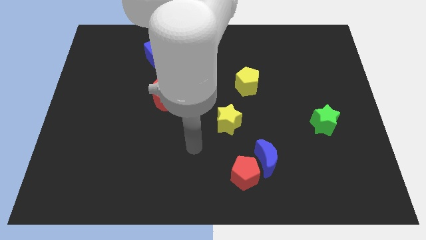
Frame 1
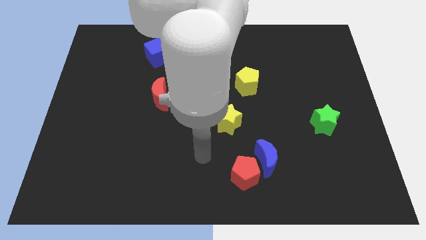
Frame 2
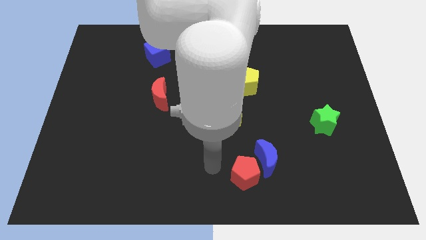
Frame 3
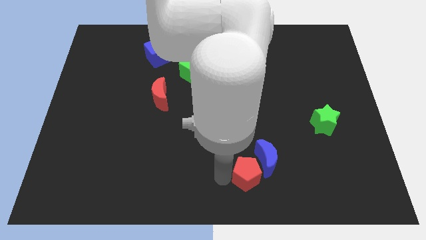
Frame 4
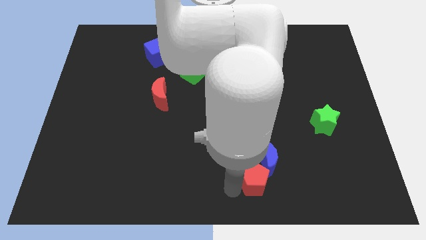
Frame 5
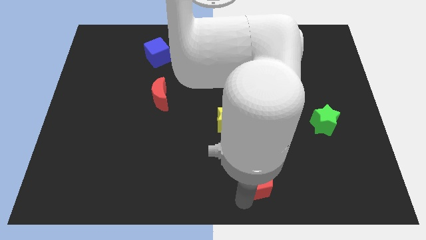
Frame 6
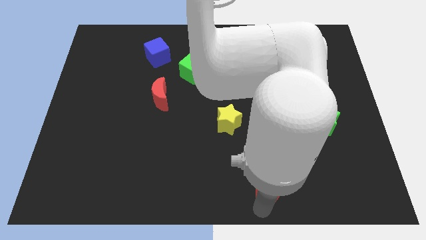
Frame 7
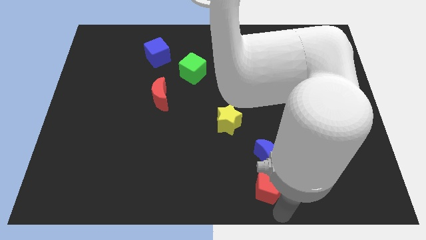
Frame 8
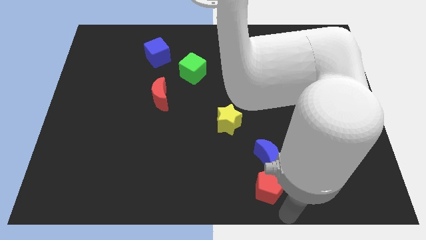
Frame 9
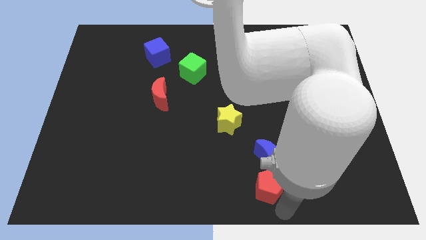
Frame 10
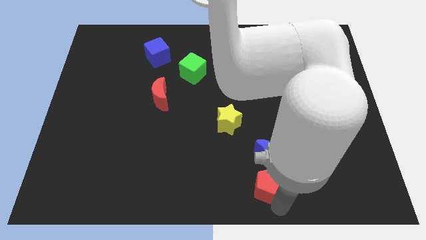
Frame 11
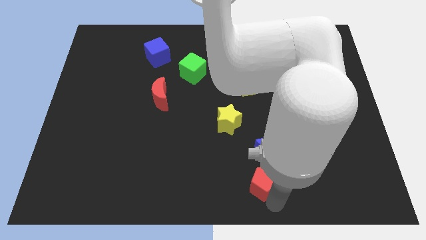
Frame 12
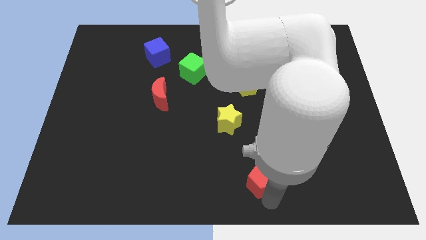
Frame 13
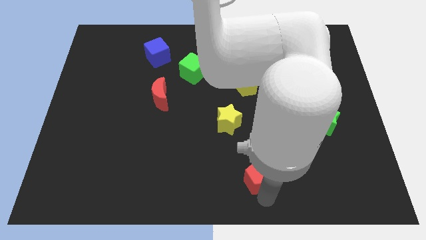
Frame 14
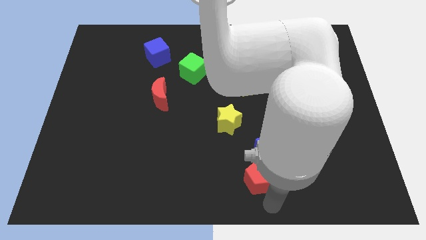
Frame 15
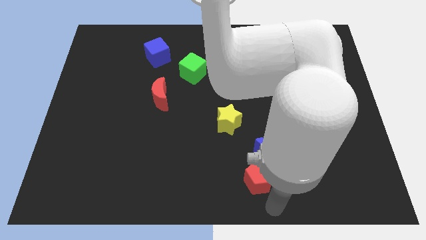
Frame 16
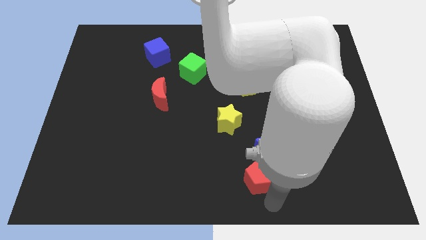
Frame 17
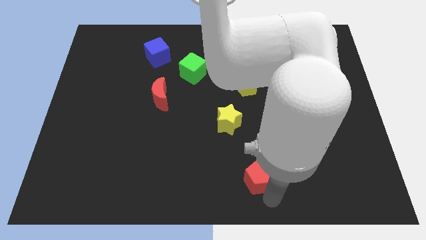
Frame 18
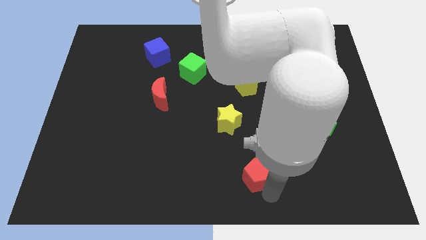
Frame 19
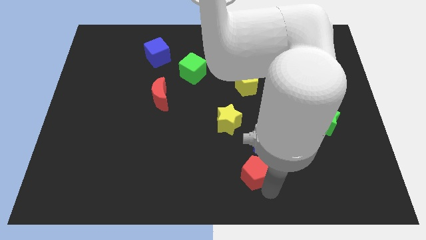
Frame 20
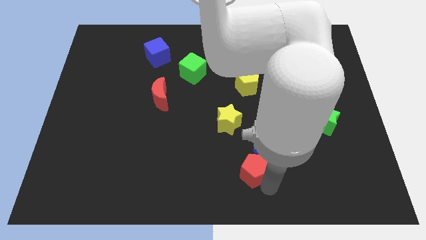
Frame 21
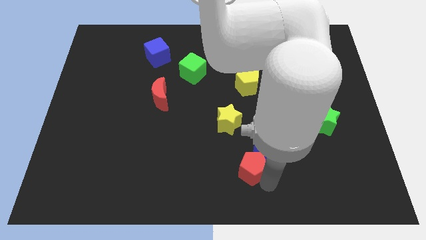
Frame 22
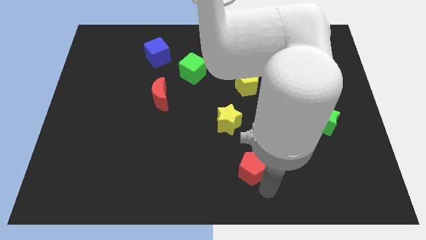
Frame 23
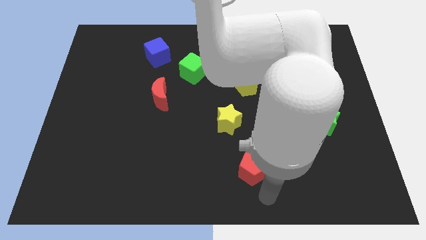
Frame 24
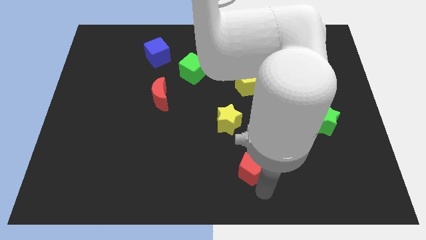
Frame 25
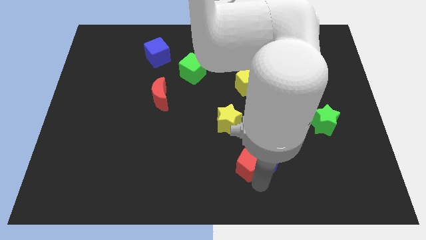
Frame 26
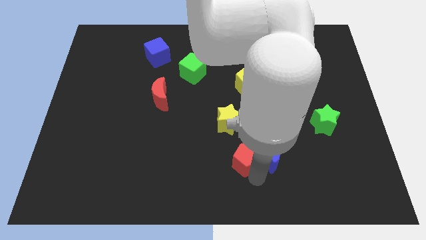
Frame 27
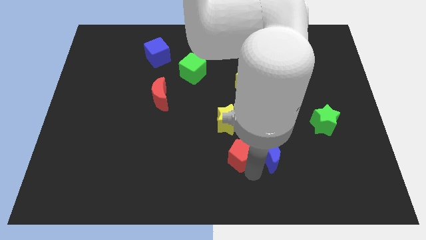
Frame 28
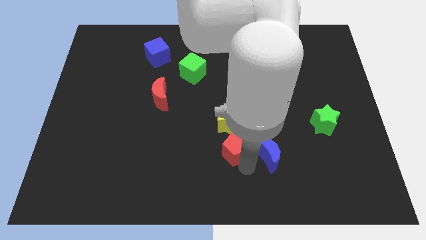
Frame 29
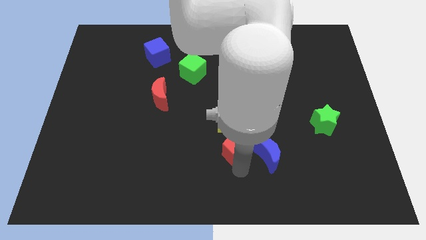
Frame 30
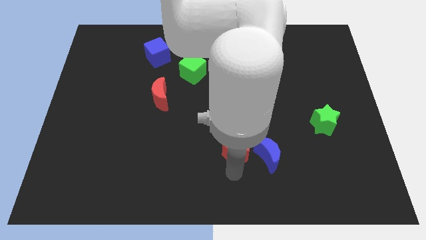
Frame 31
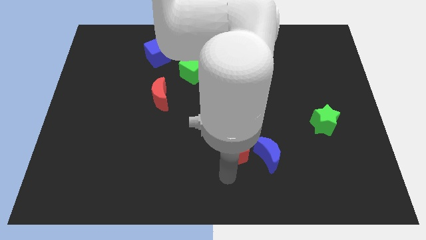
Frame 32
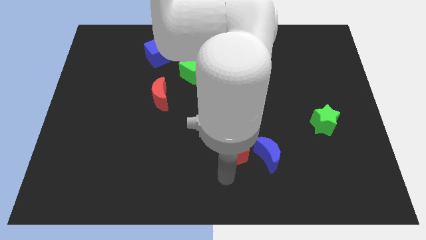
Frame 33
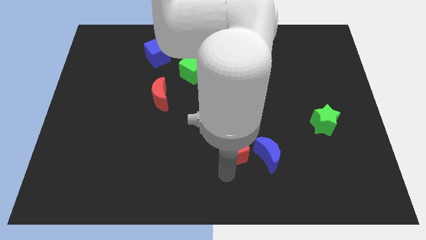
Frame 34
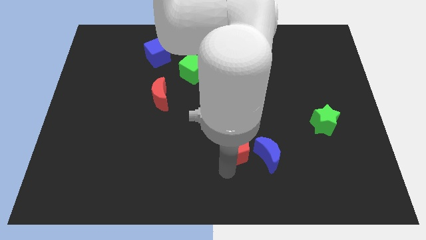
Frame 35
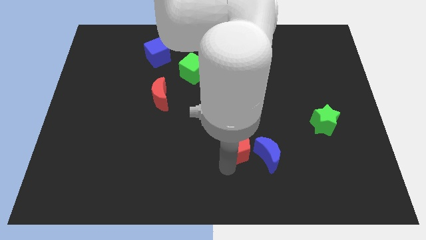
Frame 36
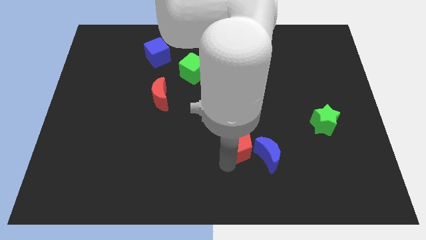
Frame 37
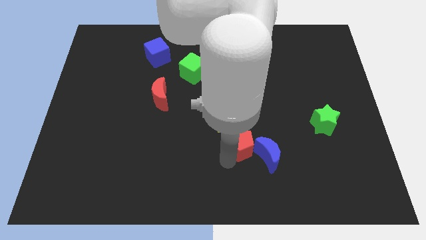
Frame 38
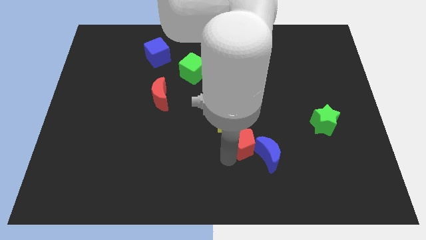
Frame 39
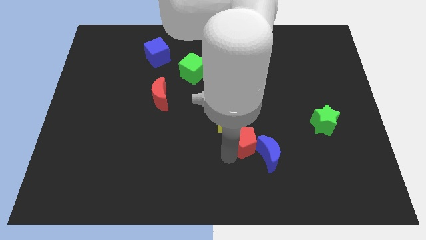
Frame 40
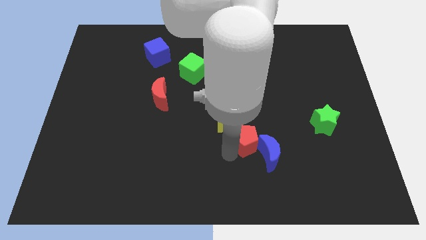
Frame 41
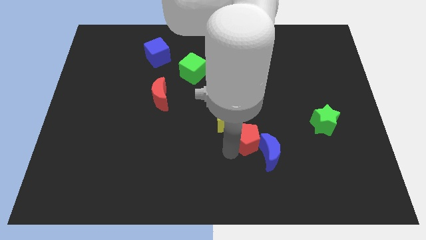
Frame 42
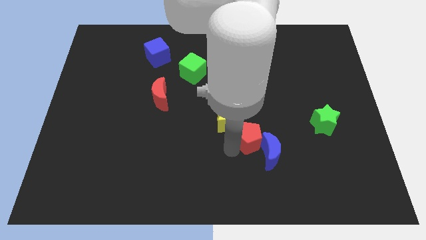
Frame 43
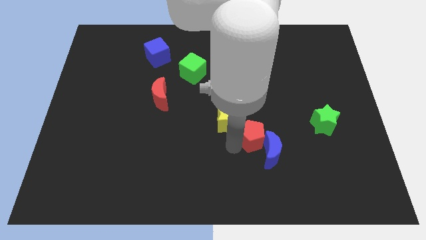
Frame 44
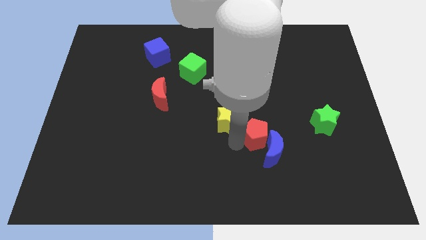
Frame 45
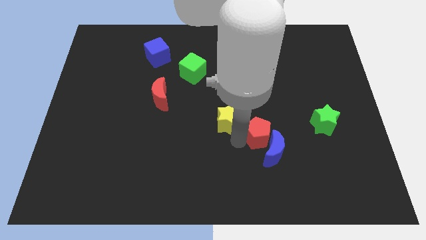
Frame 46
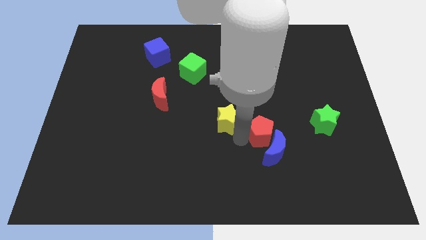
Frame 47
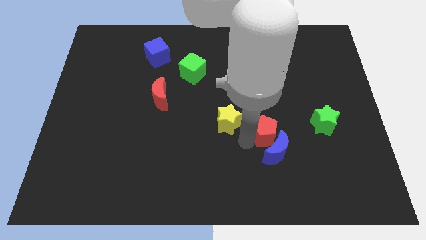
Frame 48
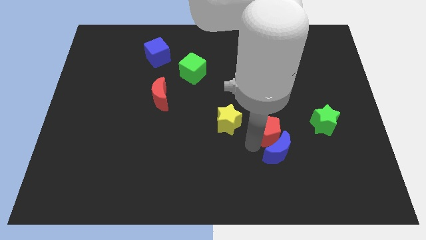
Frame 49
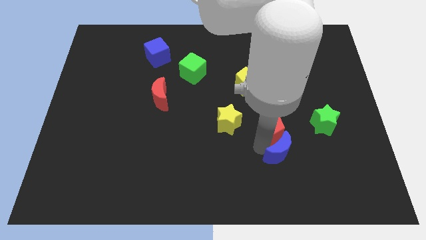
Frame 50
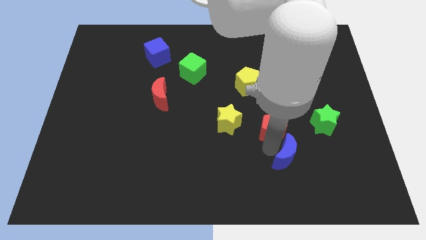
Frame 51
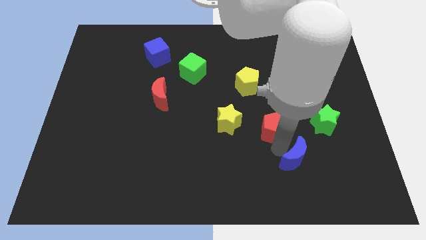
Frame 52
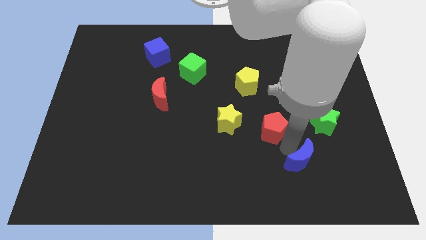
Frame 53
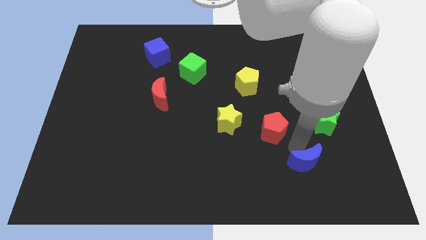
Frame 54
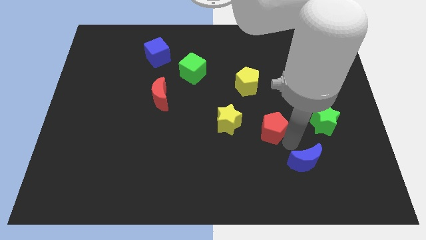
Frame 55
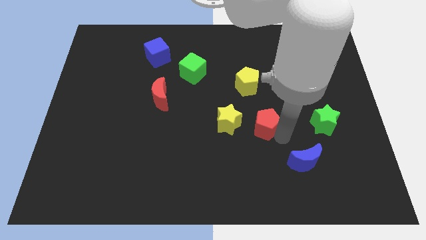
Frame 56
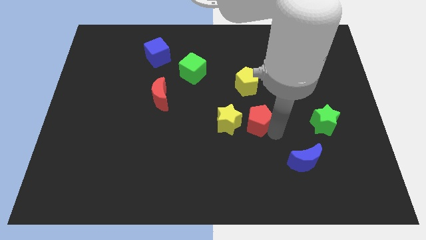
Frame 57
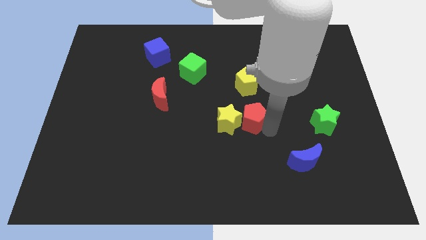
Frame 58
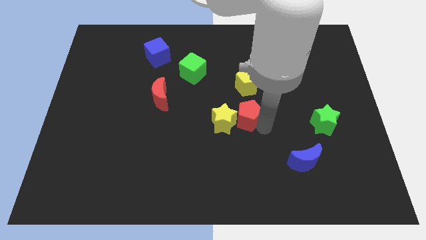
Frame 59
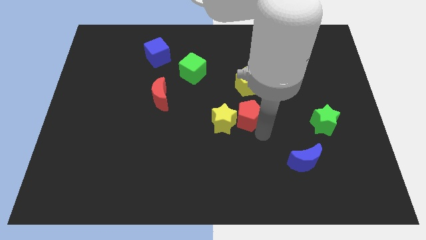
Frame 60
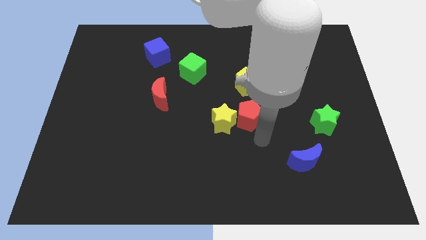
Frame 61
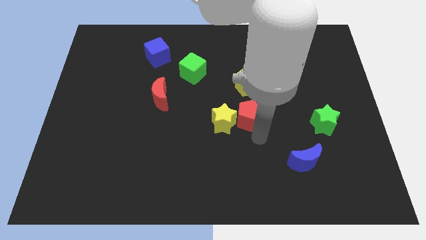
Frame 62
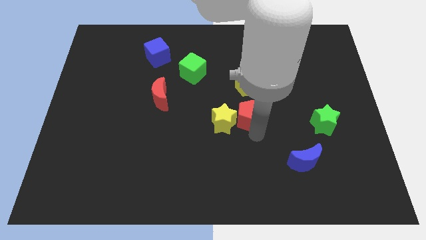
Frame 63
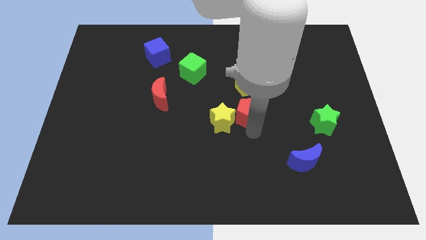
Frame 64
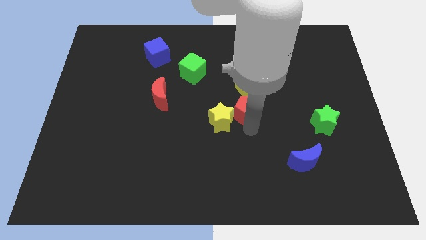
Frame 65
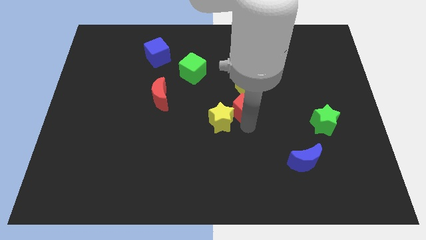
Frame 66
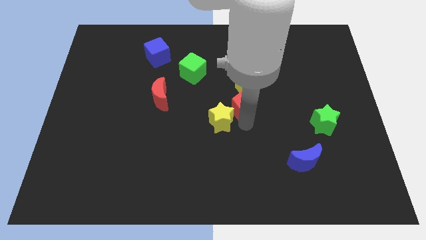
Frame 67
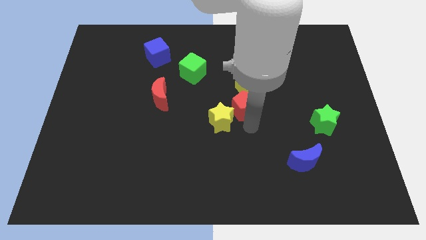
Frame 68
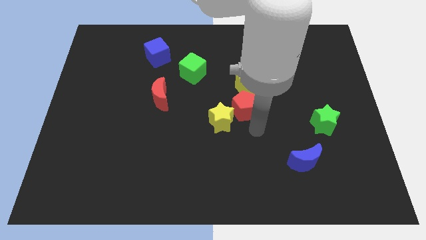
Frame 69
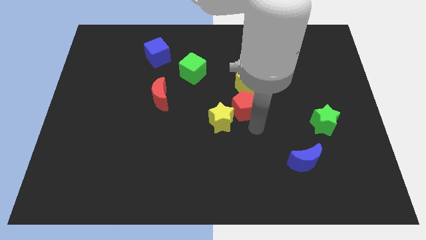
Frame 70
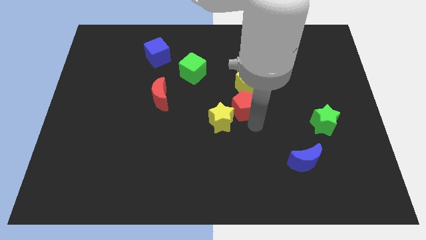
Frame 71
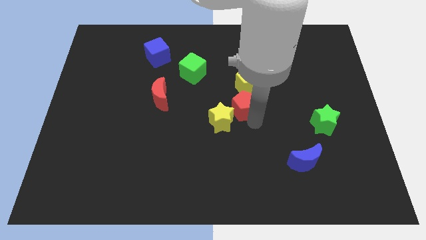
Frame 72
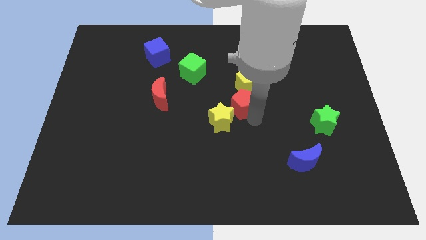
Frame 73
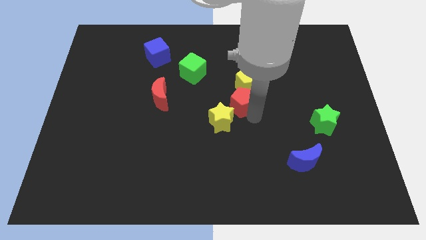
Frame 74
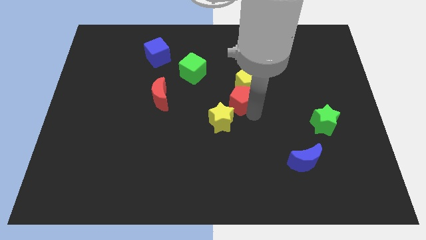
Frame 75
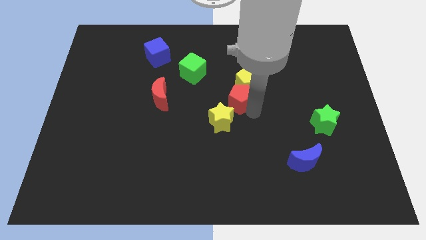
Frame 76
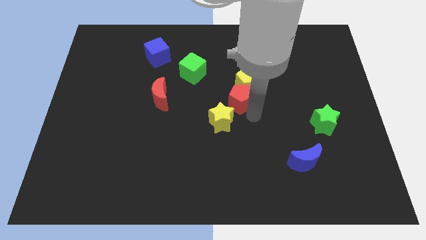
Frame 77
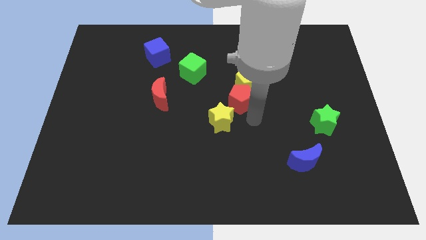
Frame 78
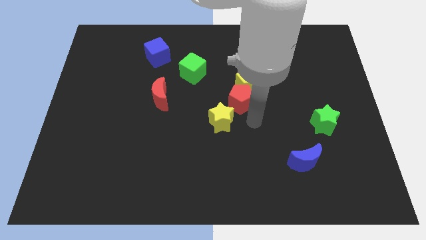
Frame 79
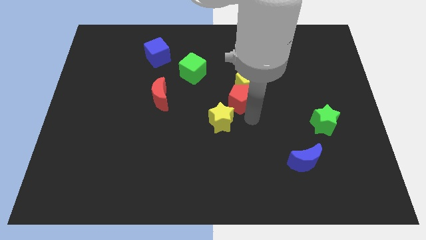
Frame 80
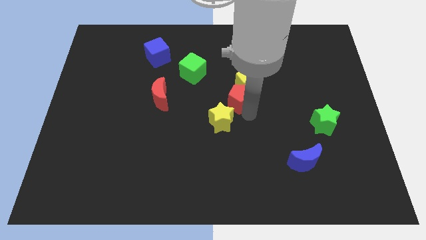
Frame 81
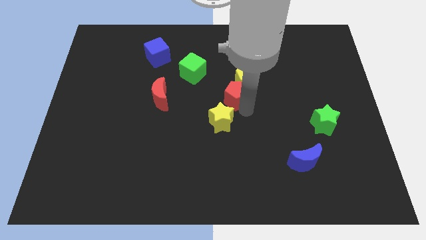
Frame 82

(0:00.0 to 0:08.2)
push the red pentagon upwards
